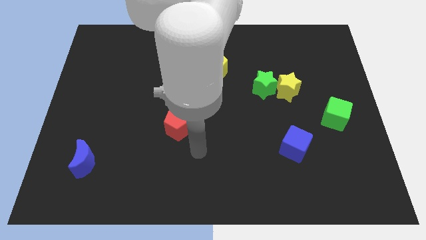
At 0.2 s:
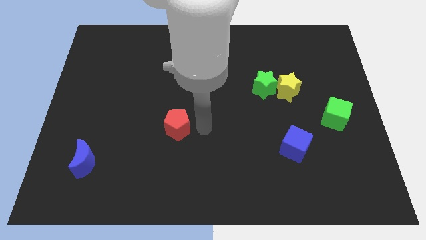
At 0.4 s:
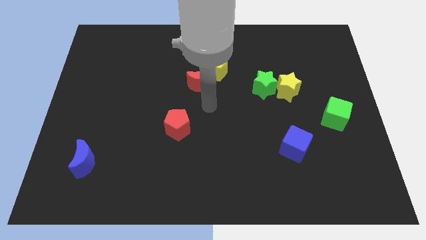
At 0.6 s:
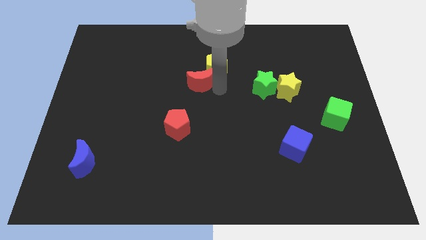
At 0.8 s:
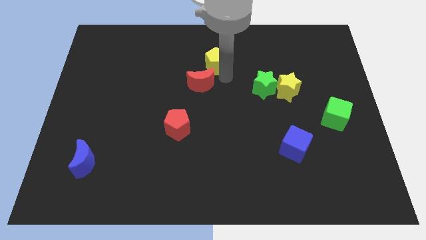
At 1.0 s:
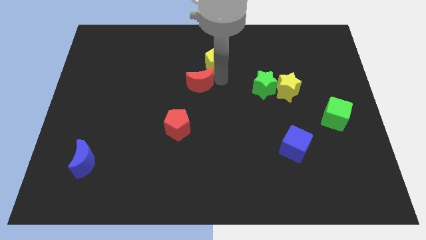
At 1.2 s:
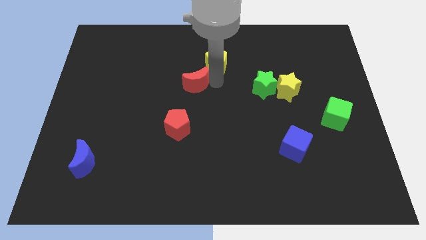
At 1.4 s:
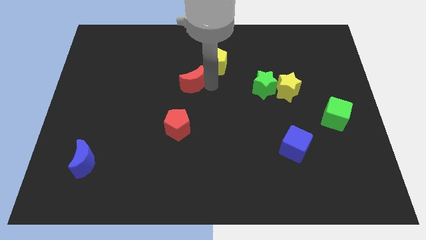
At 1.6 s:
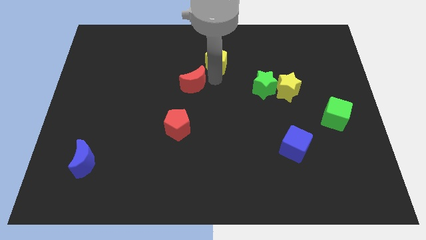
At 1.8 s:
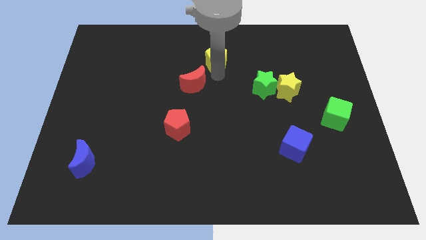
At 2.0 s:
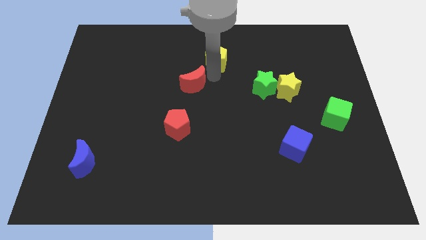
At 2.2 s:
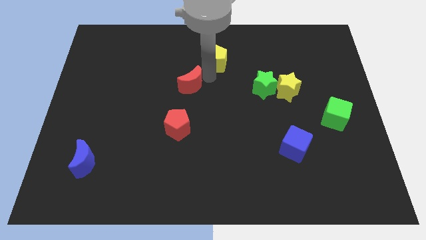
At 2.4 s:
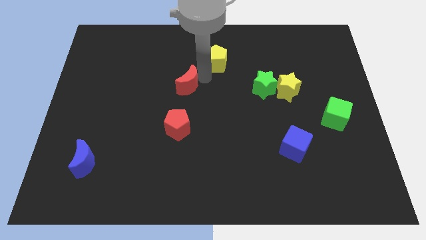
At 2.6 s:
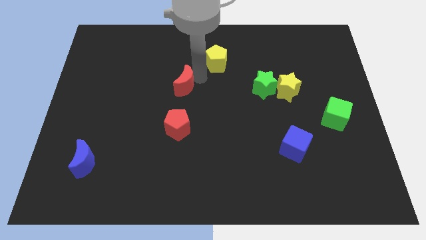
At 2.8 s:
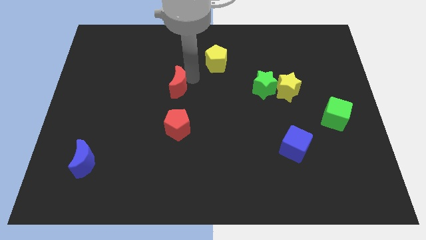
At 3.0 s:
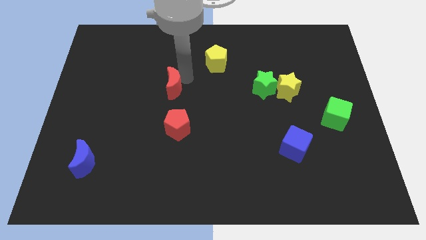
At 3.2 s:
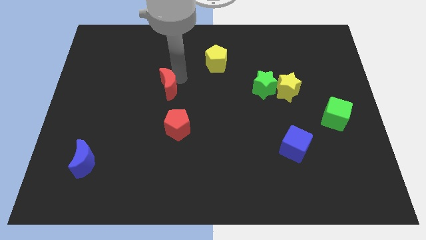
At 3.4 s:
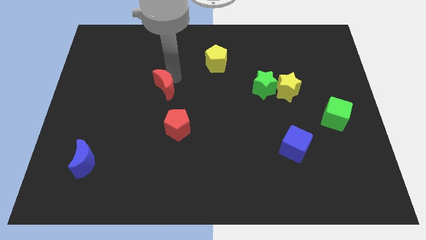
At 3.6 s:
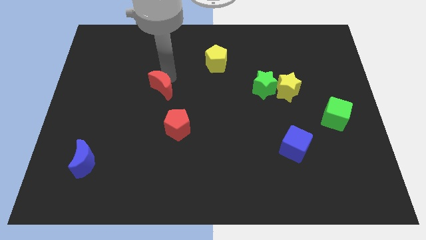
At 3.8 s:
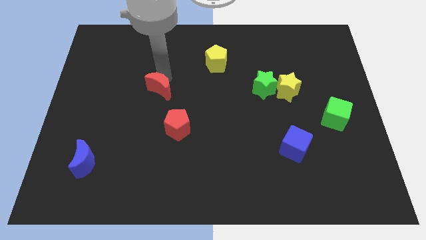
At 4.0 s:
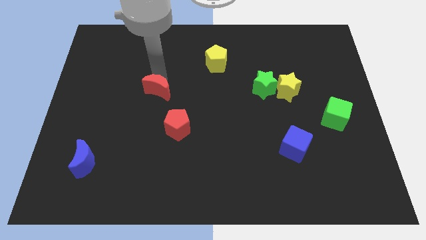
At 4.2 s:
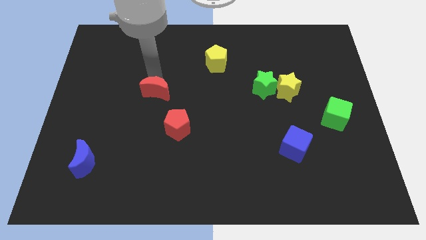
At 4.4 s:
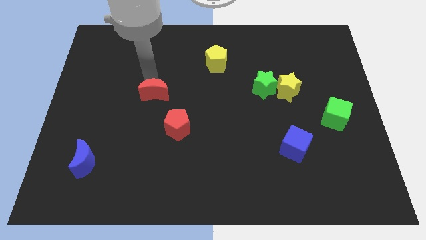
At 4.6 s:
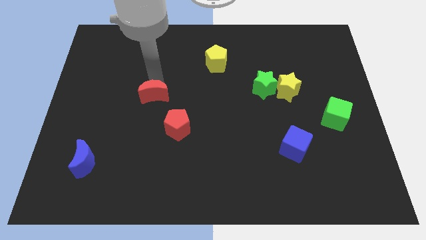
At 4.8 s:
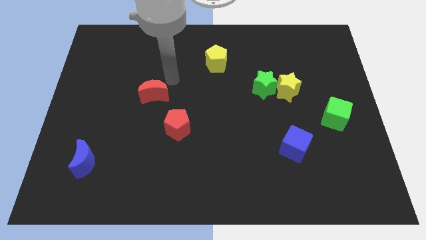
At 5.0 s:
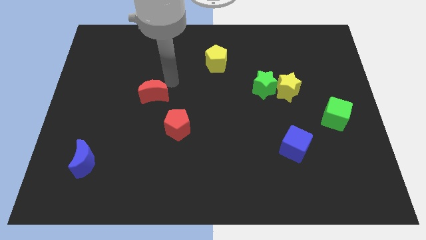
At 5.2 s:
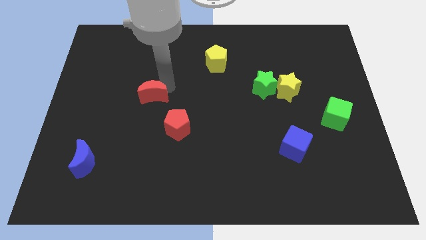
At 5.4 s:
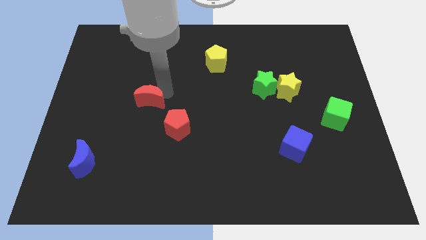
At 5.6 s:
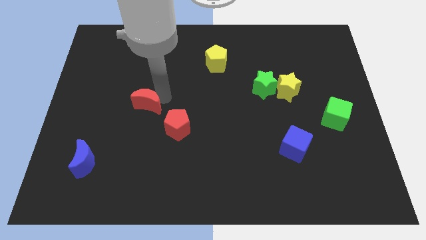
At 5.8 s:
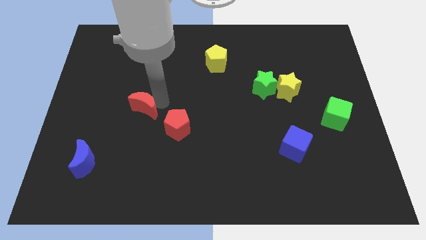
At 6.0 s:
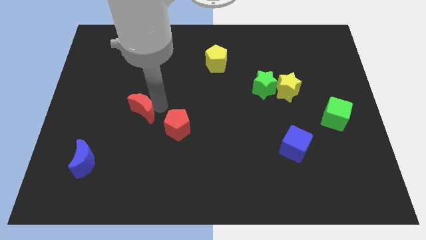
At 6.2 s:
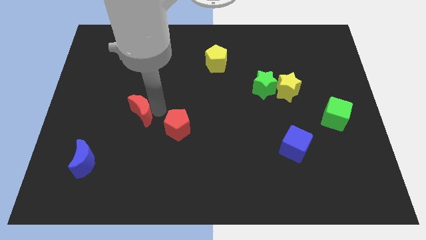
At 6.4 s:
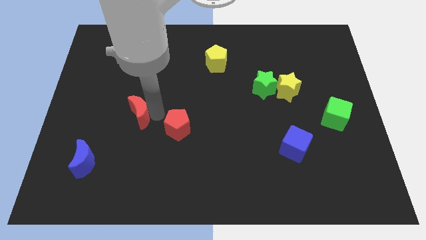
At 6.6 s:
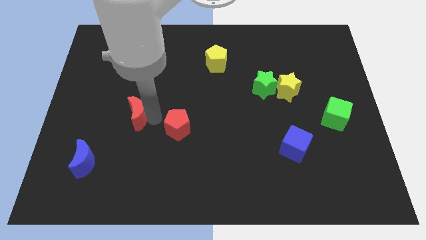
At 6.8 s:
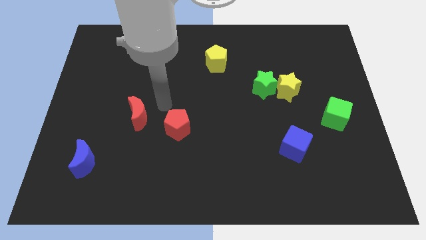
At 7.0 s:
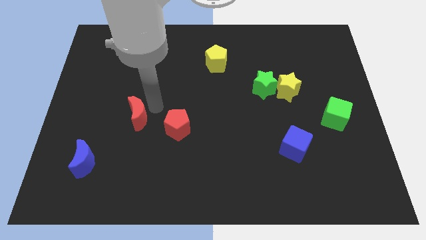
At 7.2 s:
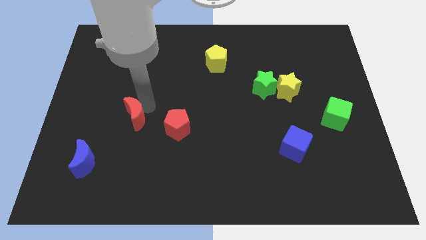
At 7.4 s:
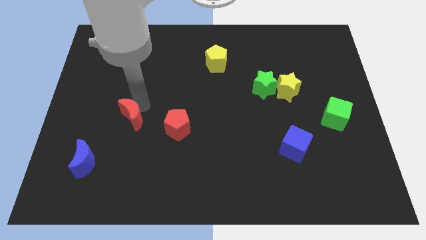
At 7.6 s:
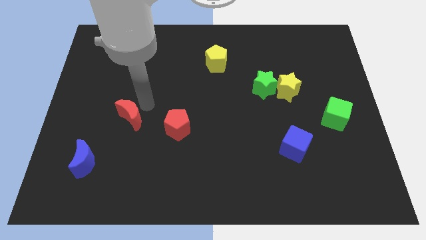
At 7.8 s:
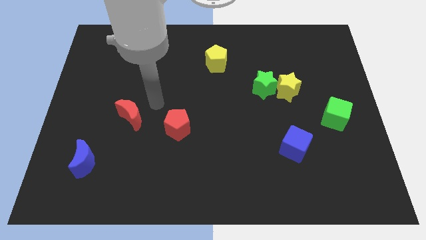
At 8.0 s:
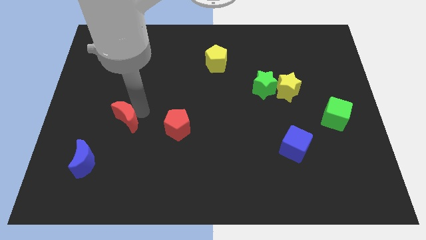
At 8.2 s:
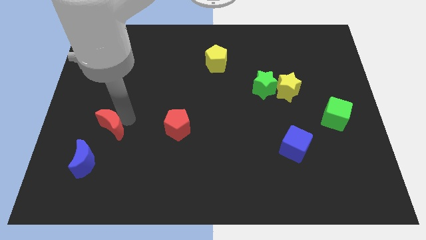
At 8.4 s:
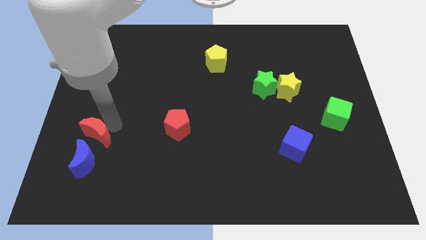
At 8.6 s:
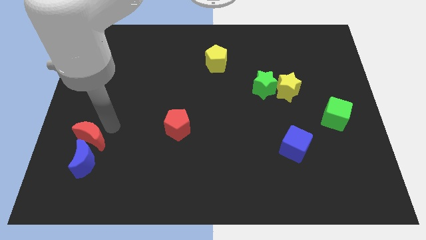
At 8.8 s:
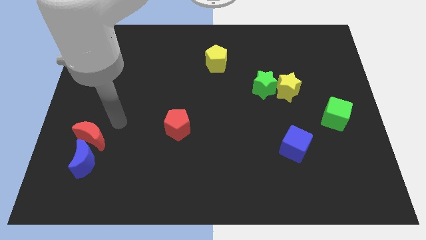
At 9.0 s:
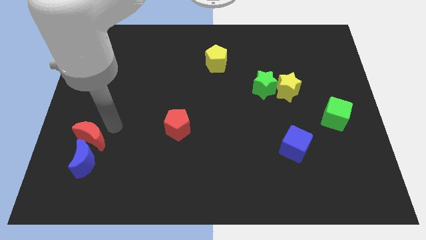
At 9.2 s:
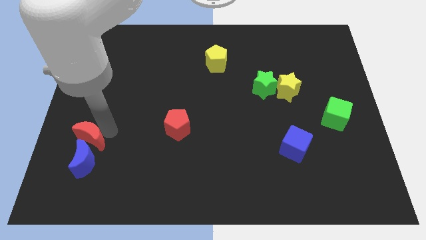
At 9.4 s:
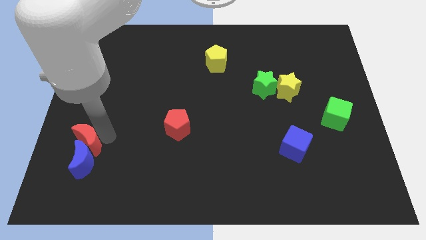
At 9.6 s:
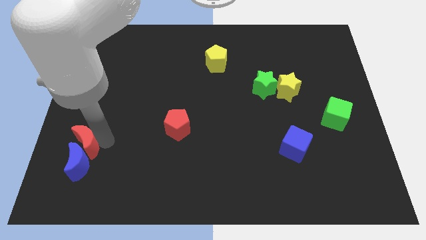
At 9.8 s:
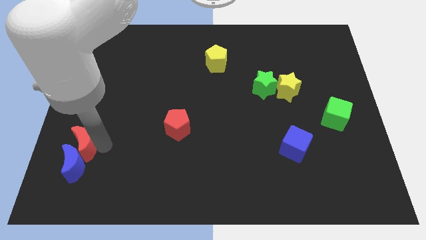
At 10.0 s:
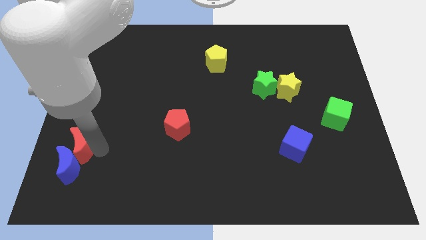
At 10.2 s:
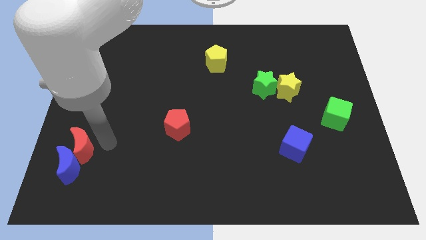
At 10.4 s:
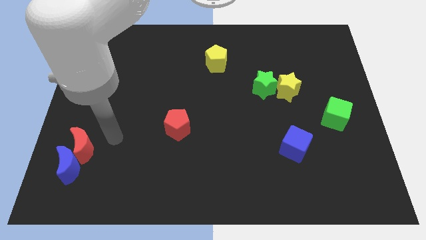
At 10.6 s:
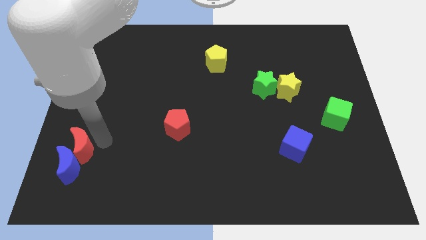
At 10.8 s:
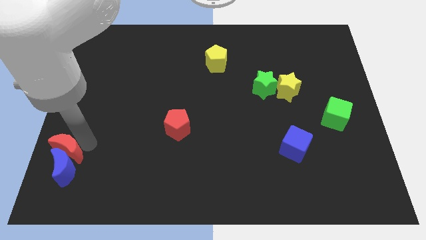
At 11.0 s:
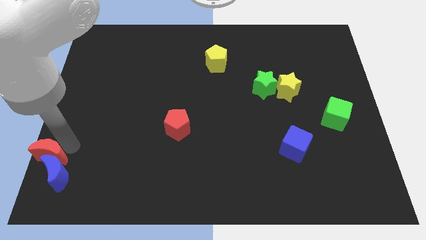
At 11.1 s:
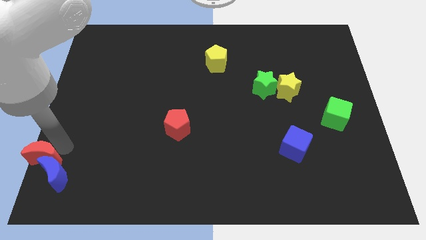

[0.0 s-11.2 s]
push the red moon to the lower left corner

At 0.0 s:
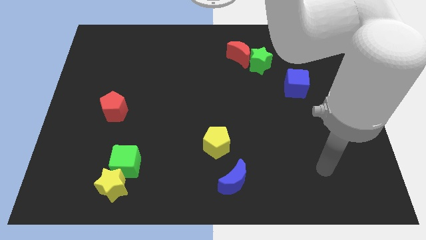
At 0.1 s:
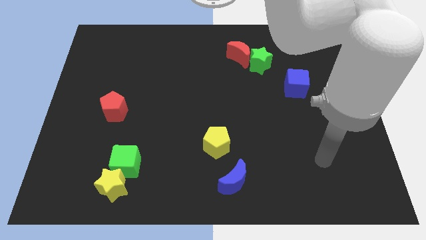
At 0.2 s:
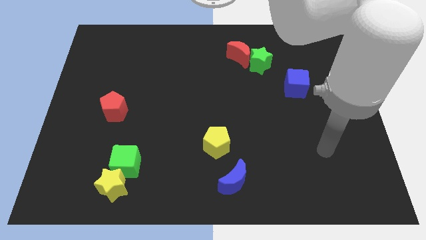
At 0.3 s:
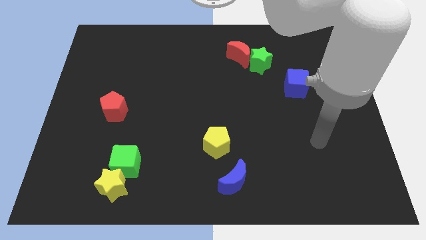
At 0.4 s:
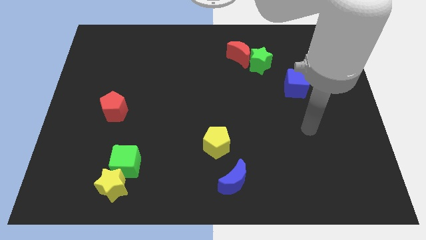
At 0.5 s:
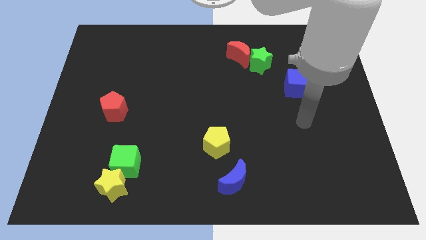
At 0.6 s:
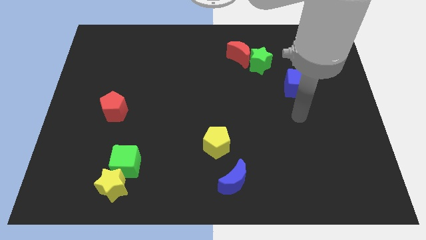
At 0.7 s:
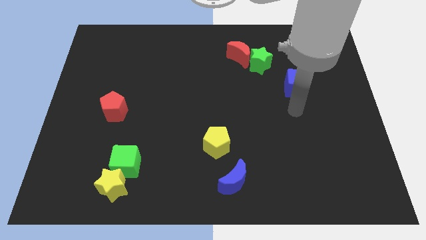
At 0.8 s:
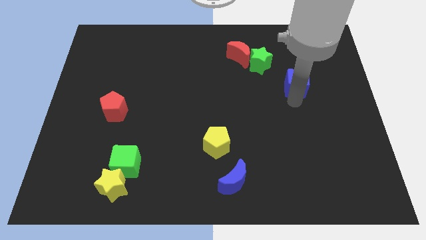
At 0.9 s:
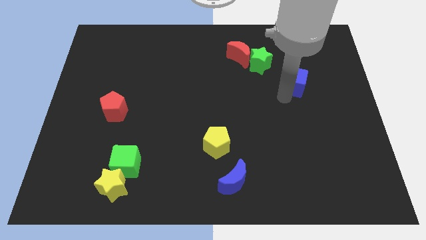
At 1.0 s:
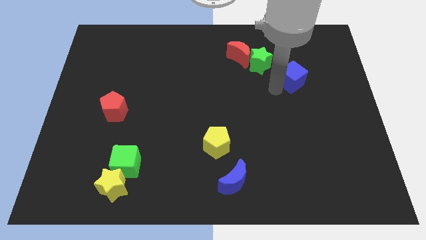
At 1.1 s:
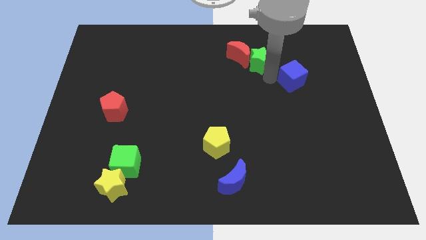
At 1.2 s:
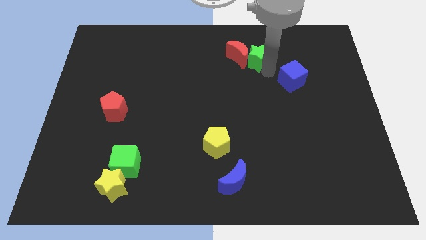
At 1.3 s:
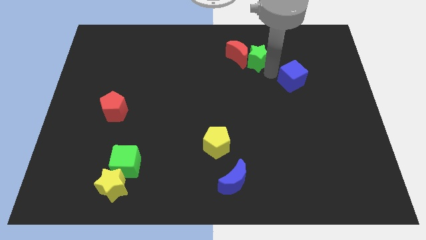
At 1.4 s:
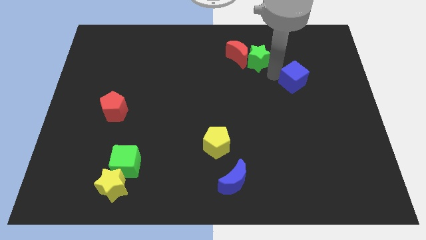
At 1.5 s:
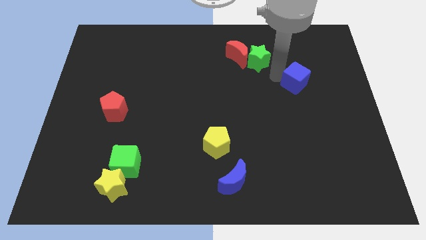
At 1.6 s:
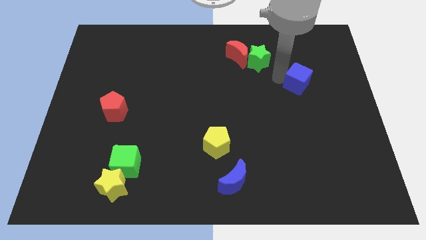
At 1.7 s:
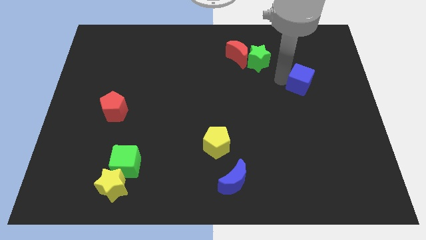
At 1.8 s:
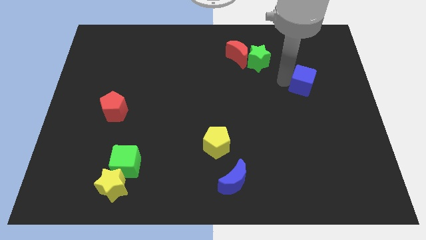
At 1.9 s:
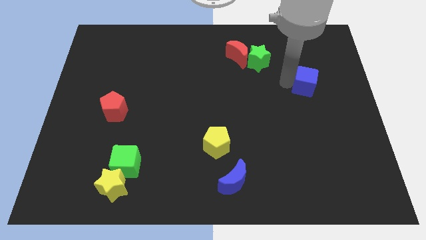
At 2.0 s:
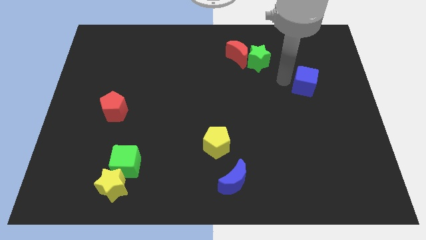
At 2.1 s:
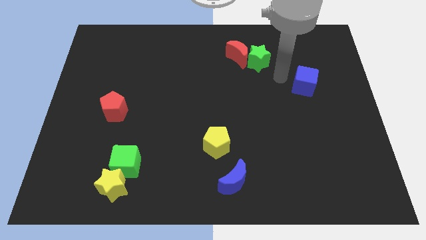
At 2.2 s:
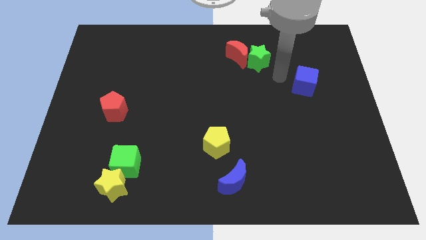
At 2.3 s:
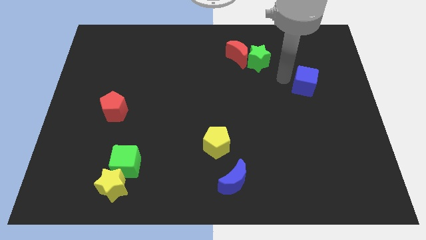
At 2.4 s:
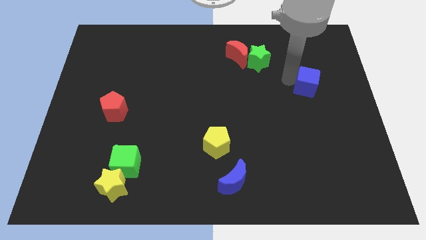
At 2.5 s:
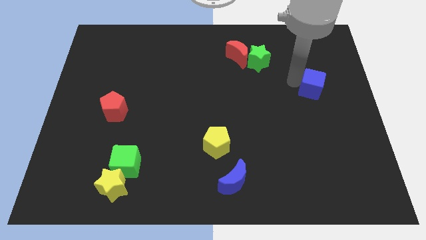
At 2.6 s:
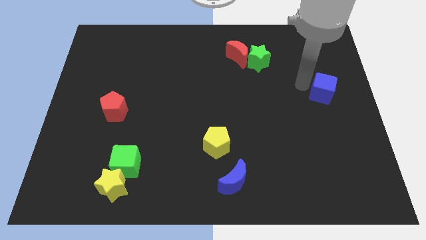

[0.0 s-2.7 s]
put the blue cube to the right side
